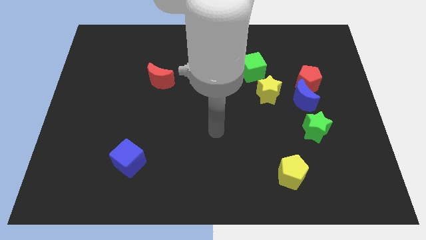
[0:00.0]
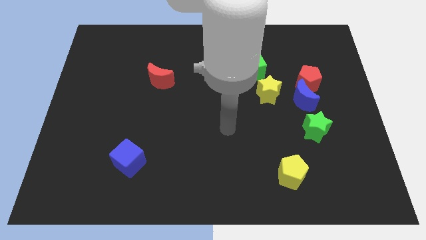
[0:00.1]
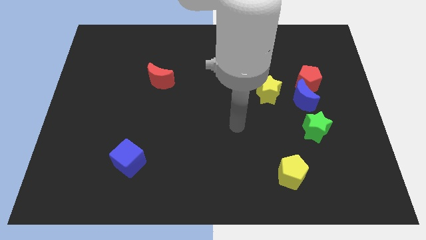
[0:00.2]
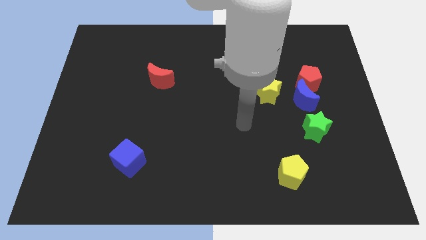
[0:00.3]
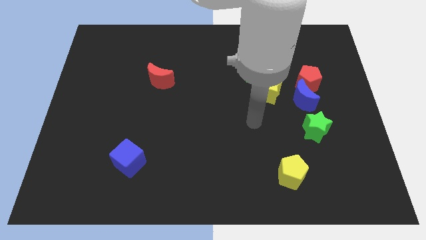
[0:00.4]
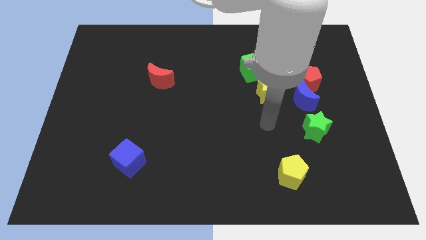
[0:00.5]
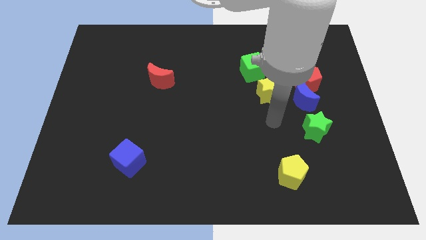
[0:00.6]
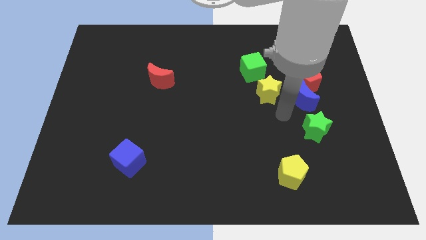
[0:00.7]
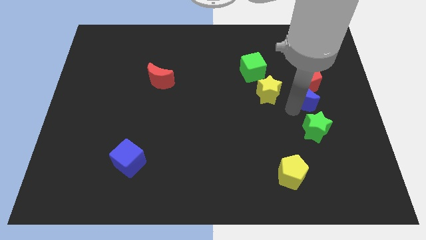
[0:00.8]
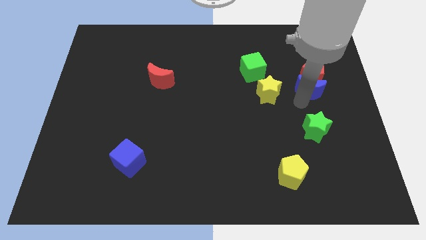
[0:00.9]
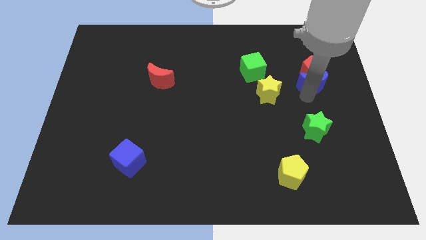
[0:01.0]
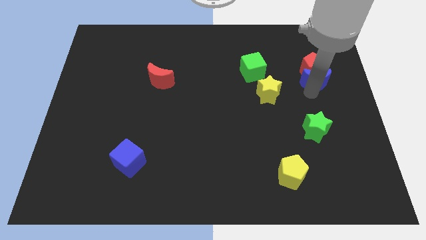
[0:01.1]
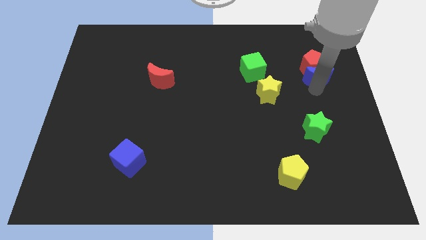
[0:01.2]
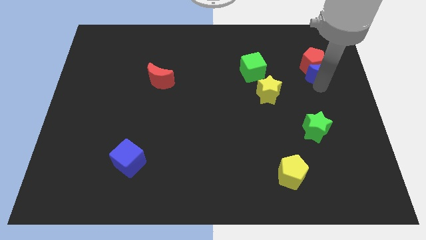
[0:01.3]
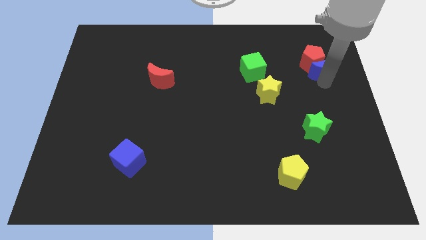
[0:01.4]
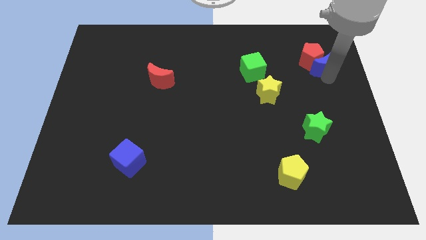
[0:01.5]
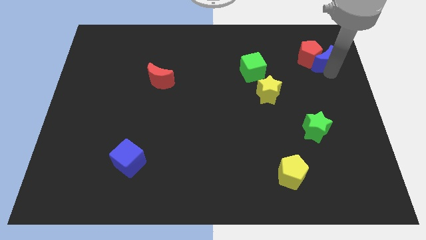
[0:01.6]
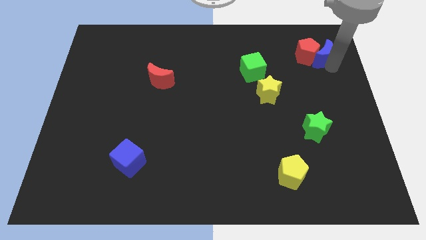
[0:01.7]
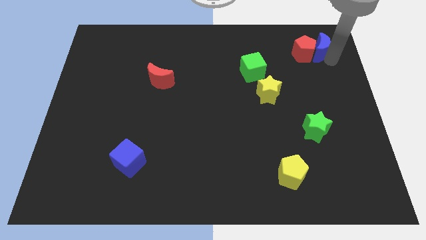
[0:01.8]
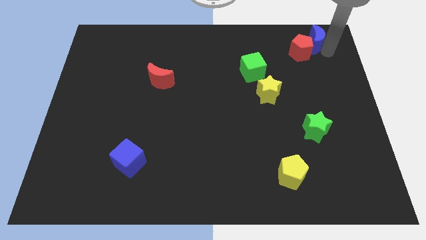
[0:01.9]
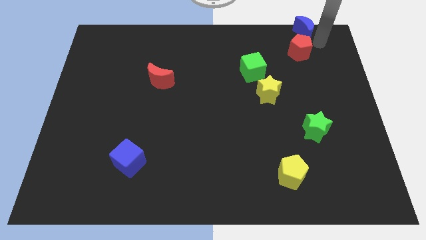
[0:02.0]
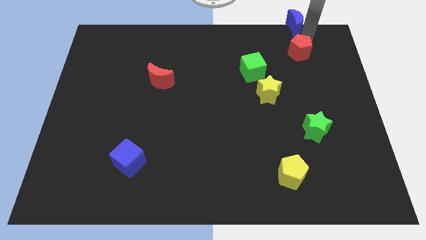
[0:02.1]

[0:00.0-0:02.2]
pull the red pentagon apart from the blue moon

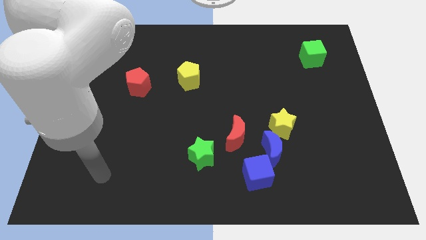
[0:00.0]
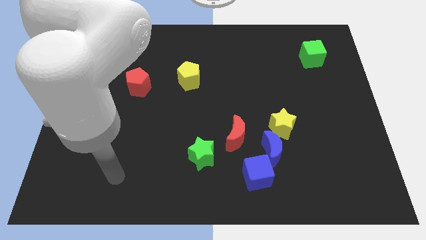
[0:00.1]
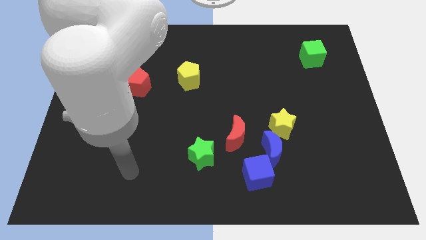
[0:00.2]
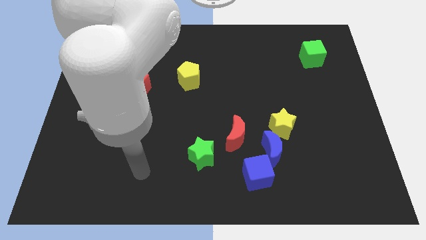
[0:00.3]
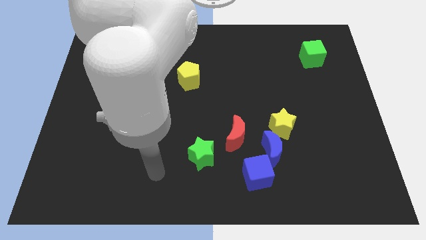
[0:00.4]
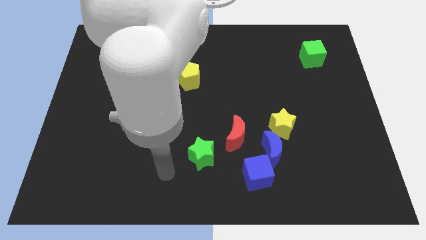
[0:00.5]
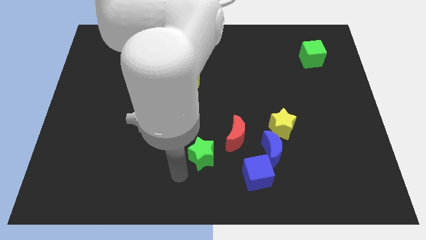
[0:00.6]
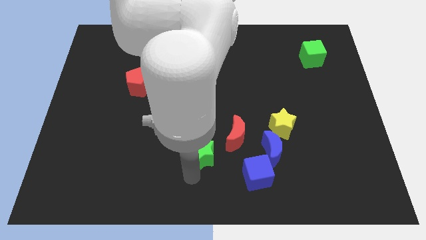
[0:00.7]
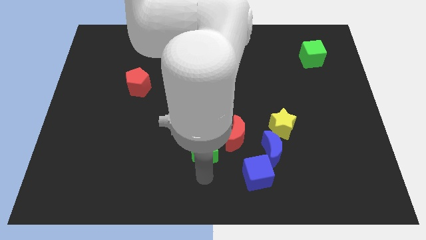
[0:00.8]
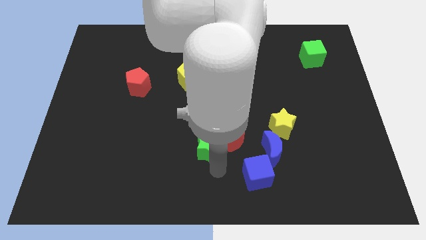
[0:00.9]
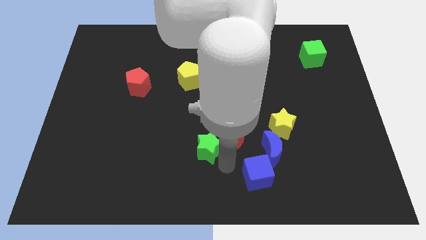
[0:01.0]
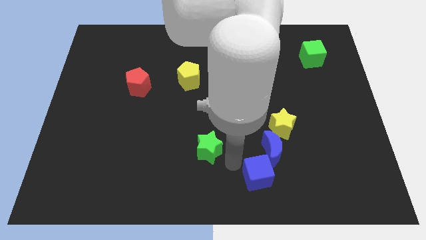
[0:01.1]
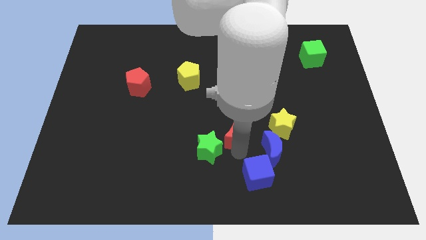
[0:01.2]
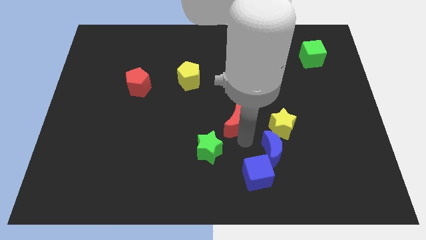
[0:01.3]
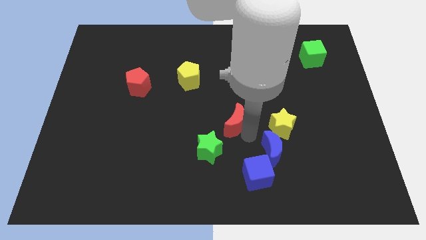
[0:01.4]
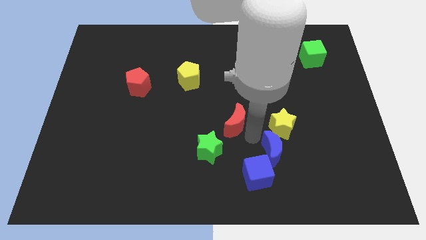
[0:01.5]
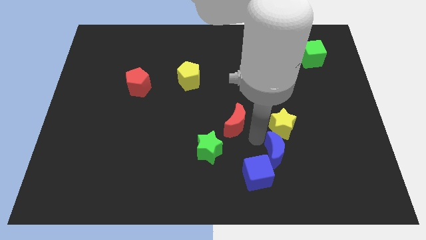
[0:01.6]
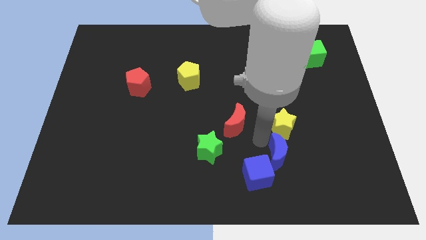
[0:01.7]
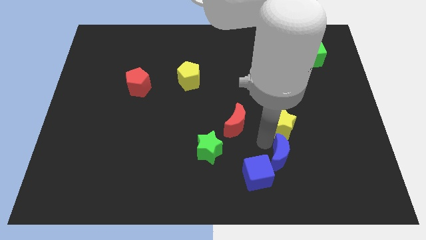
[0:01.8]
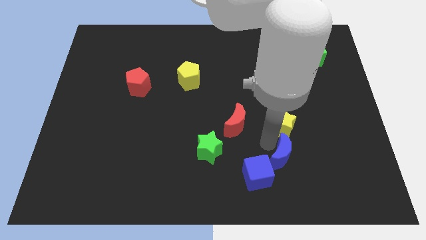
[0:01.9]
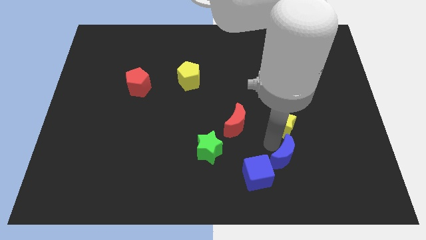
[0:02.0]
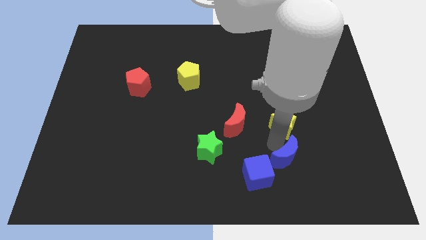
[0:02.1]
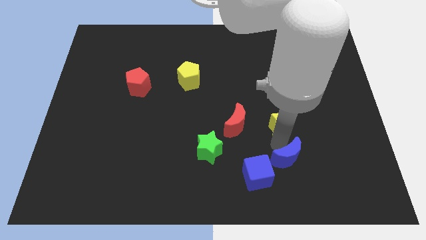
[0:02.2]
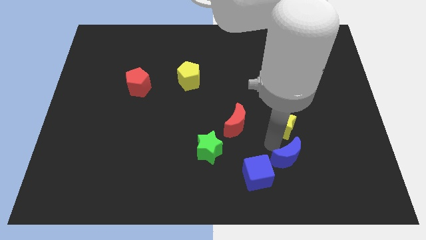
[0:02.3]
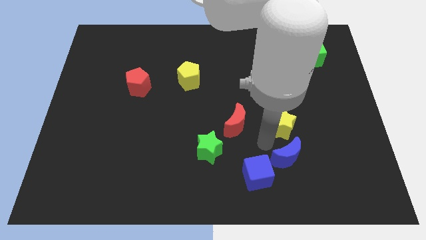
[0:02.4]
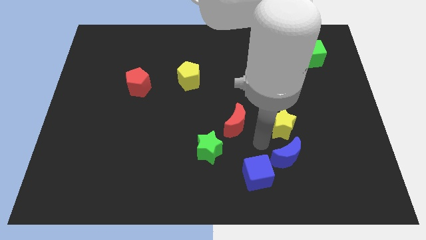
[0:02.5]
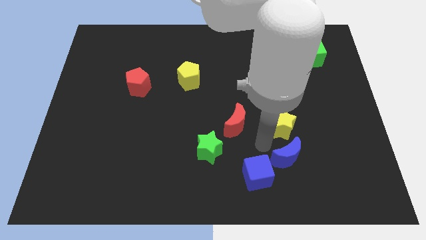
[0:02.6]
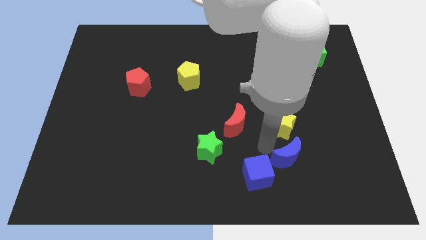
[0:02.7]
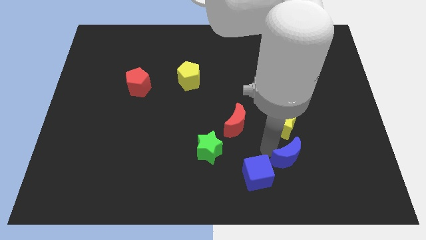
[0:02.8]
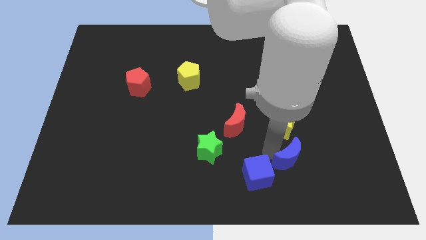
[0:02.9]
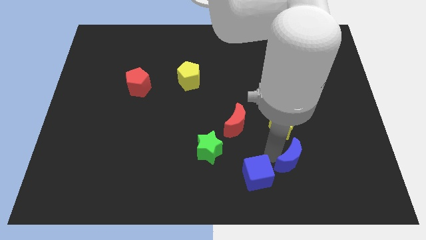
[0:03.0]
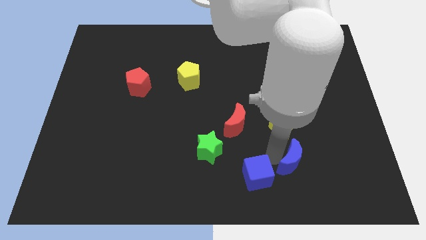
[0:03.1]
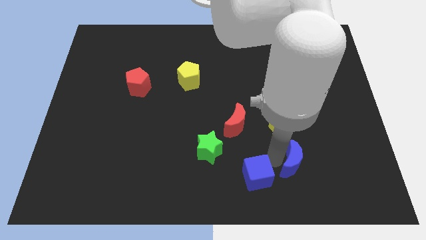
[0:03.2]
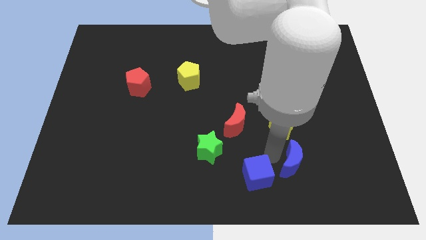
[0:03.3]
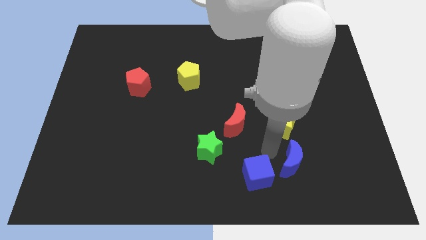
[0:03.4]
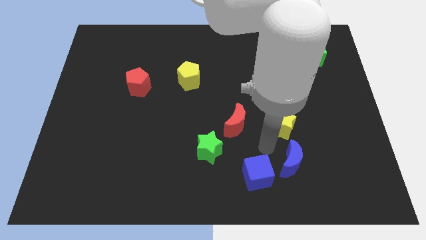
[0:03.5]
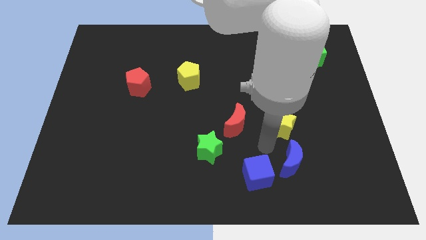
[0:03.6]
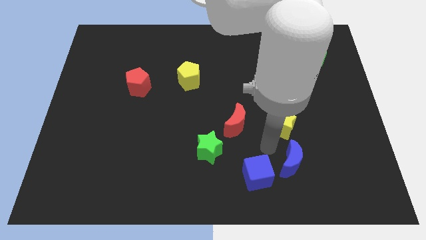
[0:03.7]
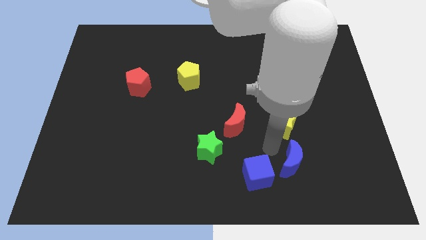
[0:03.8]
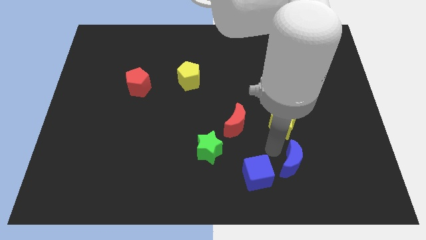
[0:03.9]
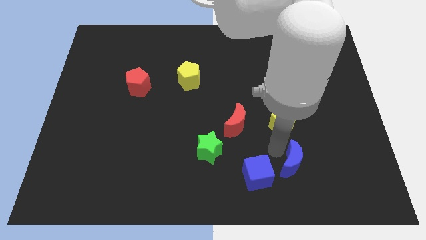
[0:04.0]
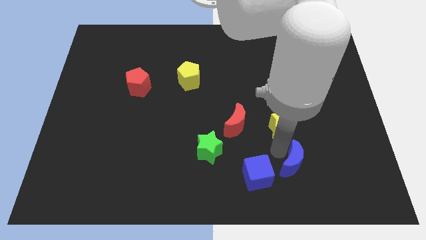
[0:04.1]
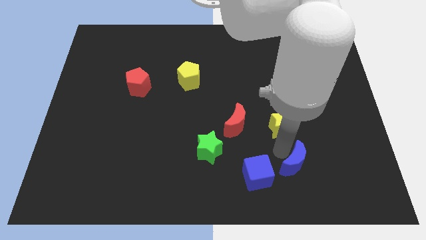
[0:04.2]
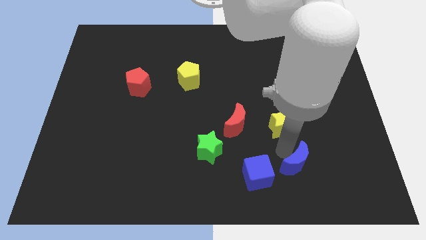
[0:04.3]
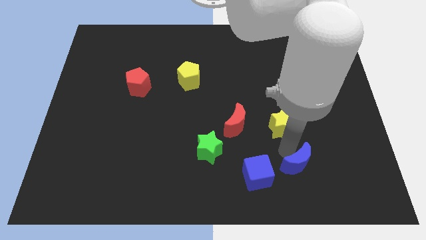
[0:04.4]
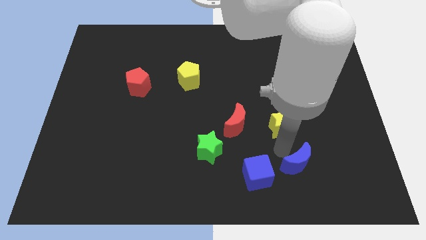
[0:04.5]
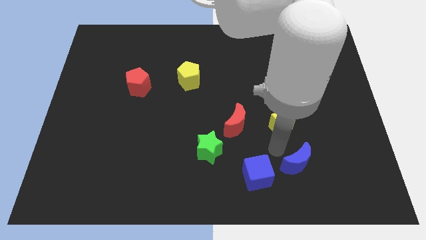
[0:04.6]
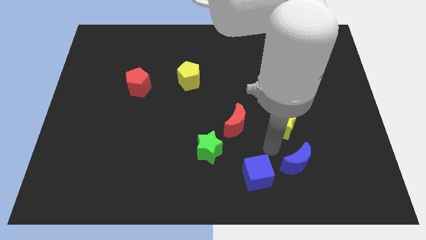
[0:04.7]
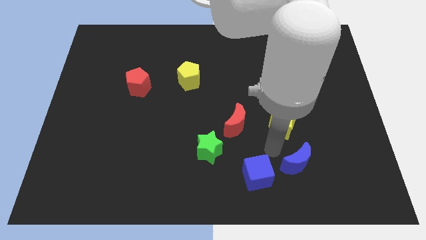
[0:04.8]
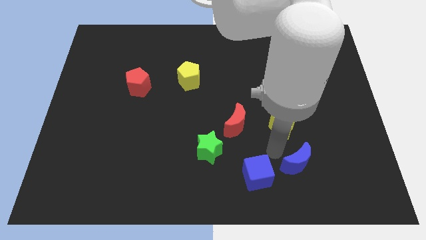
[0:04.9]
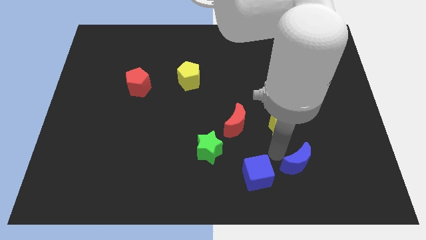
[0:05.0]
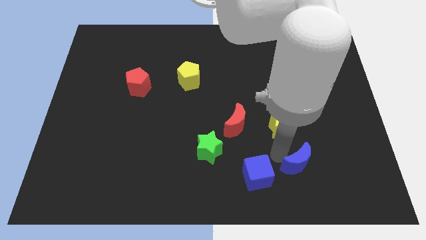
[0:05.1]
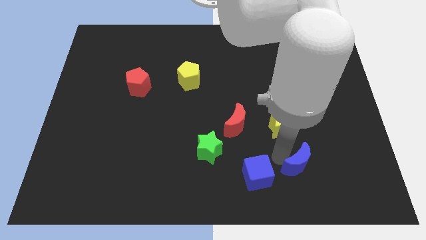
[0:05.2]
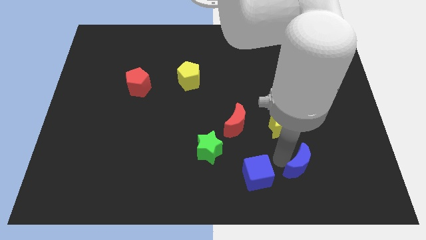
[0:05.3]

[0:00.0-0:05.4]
pull the blue moon apart from the blue cube, yellow star, and red moon

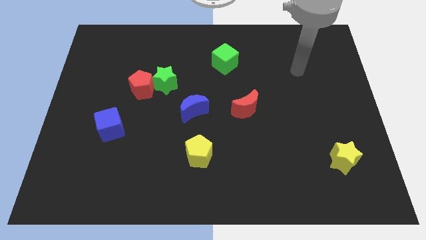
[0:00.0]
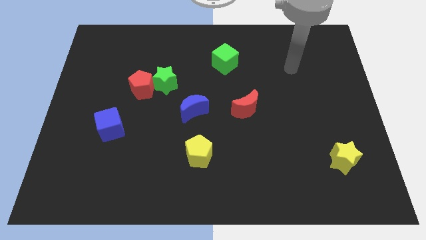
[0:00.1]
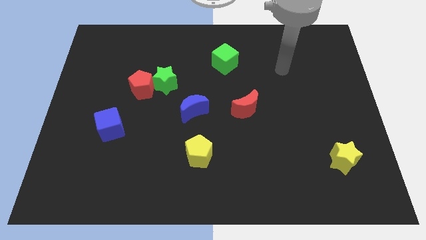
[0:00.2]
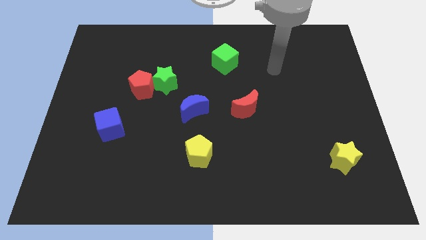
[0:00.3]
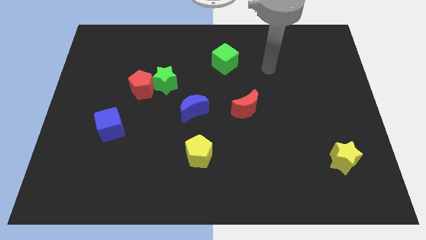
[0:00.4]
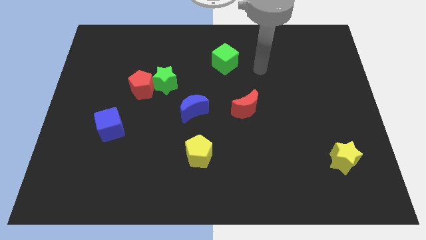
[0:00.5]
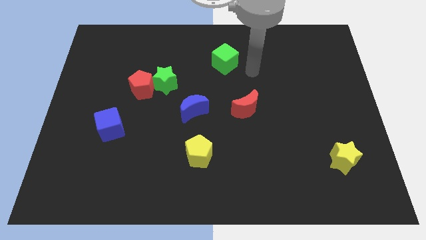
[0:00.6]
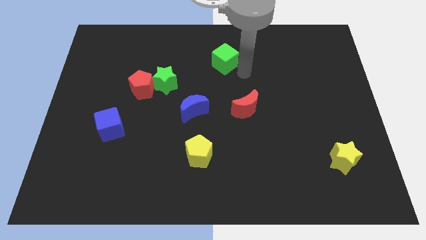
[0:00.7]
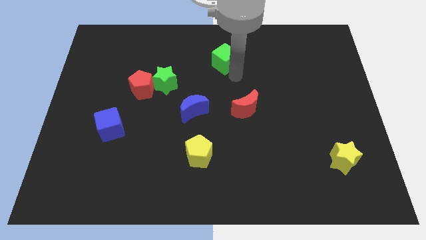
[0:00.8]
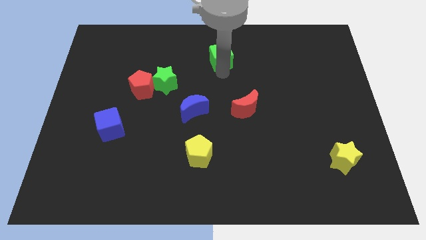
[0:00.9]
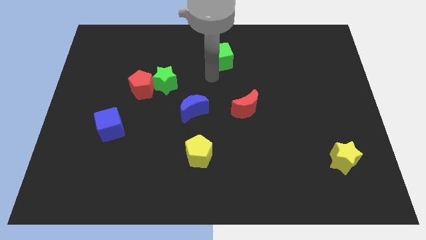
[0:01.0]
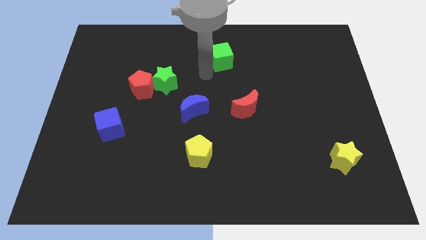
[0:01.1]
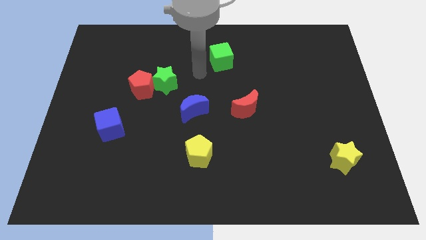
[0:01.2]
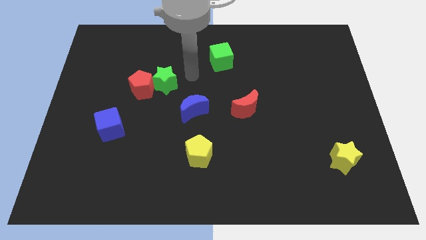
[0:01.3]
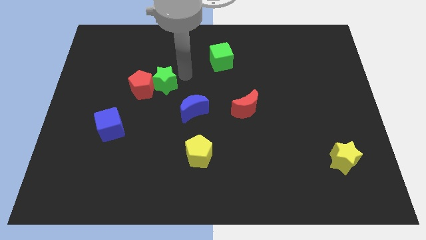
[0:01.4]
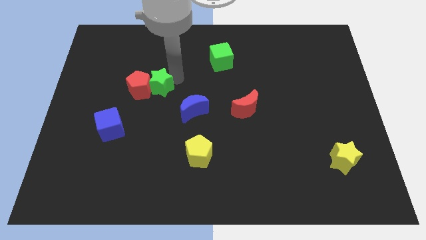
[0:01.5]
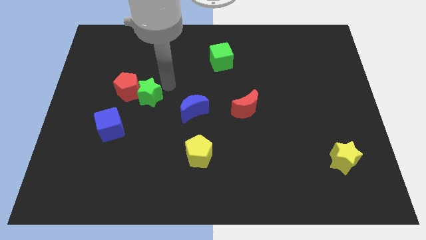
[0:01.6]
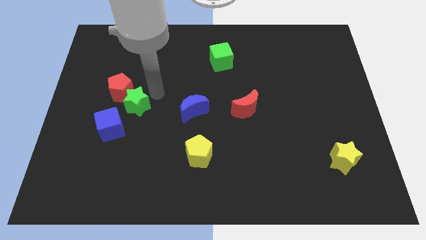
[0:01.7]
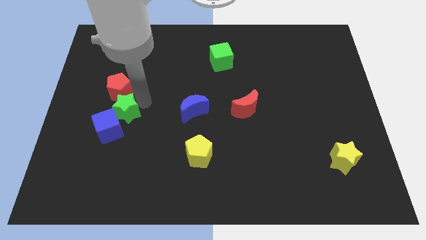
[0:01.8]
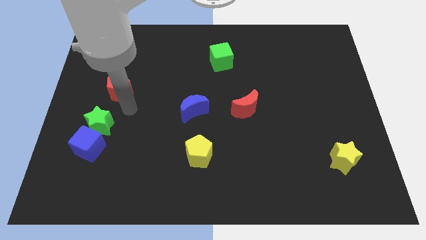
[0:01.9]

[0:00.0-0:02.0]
pull the red pentagon apart from the green star
